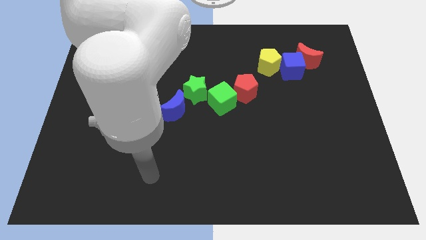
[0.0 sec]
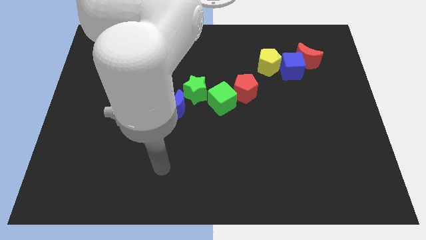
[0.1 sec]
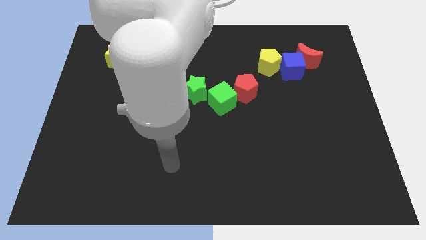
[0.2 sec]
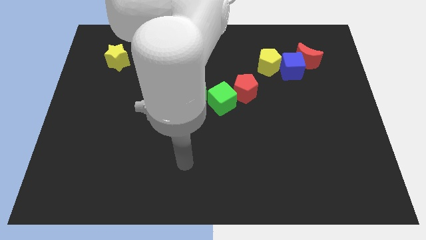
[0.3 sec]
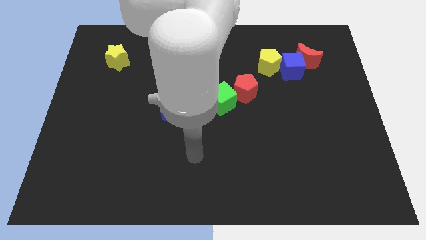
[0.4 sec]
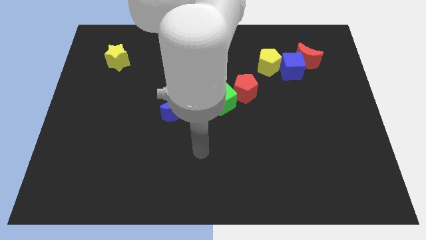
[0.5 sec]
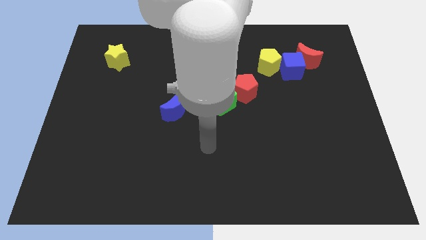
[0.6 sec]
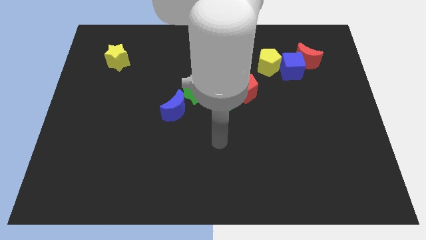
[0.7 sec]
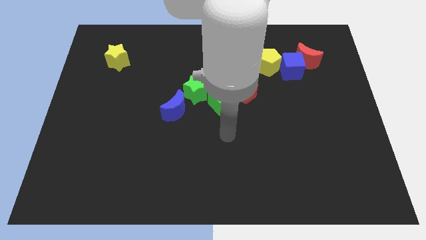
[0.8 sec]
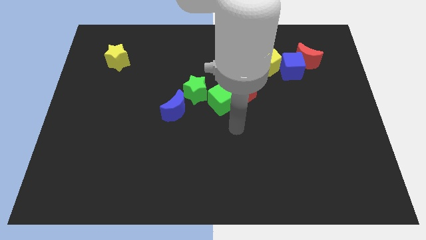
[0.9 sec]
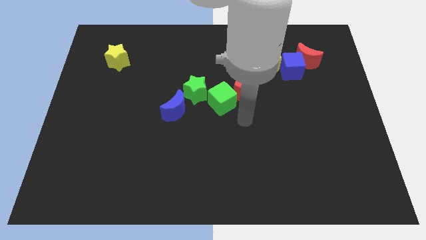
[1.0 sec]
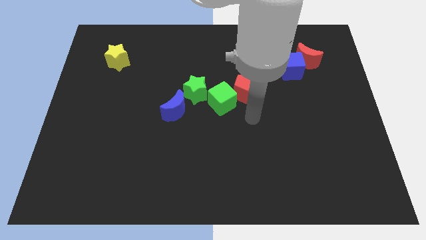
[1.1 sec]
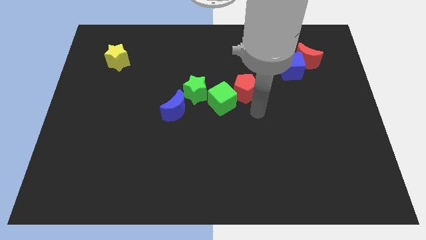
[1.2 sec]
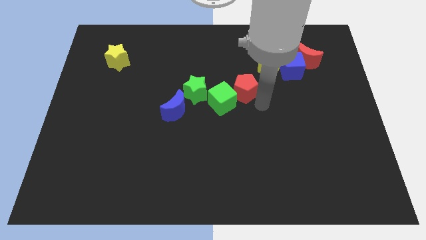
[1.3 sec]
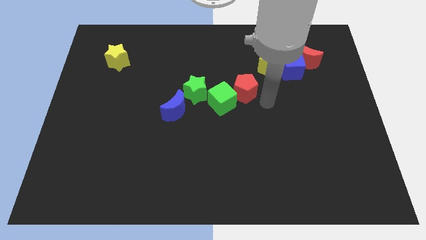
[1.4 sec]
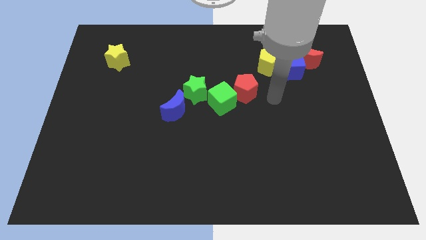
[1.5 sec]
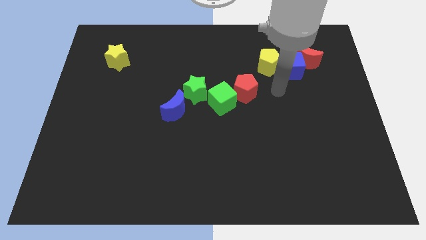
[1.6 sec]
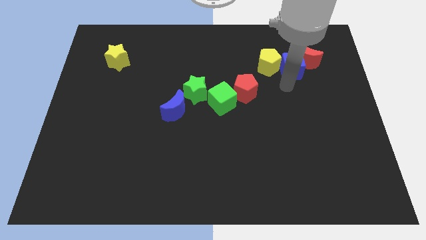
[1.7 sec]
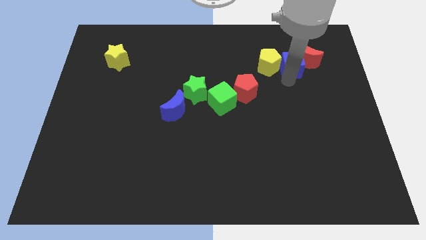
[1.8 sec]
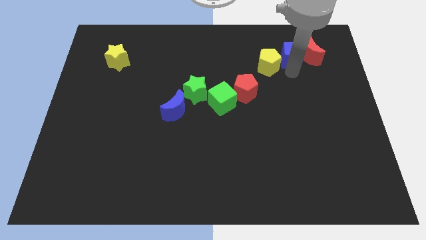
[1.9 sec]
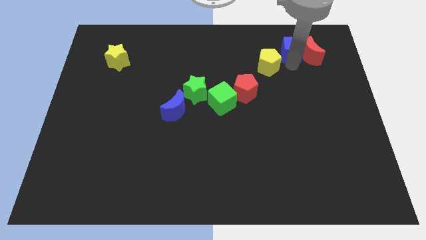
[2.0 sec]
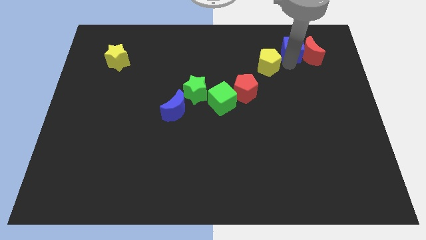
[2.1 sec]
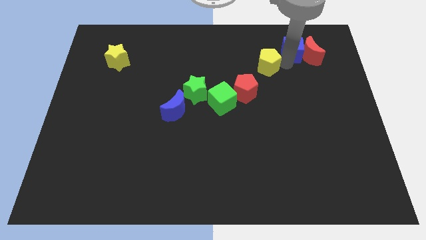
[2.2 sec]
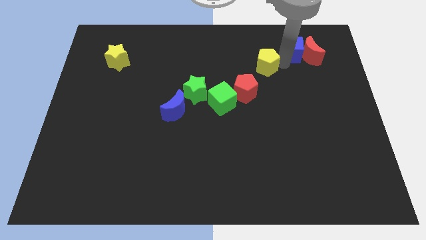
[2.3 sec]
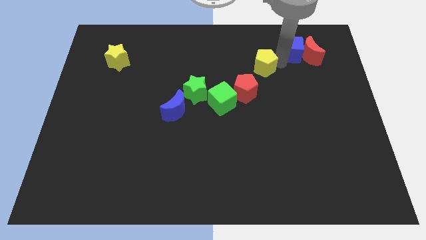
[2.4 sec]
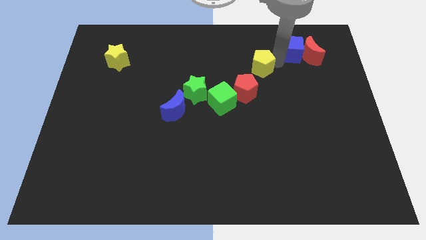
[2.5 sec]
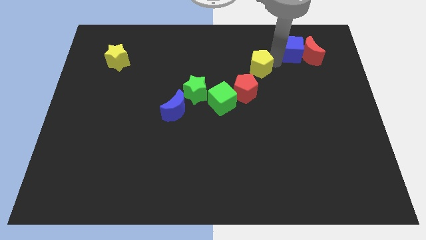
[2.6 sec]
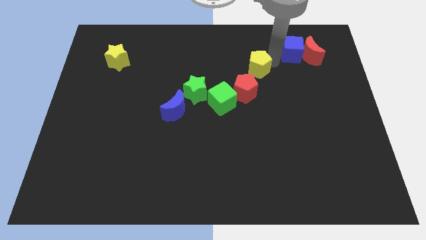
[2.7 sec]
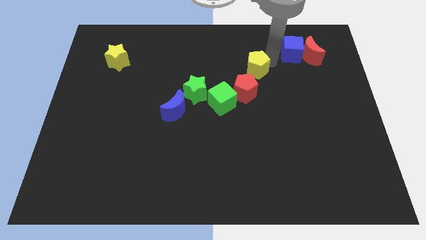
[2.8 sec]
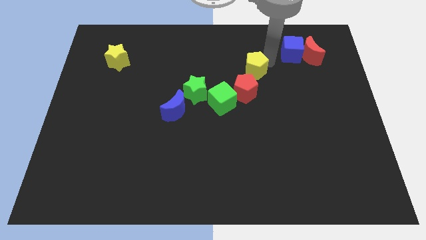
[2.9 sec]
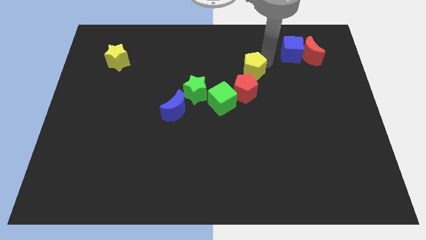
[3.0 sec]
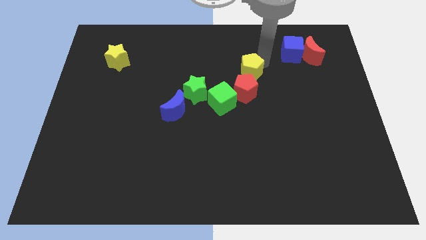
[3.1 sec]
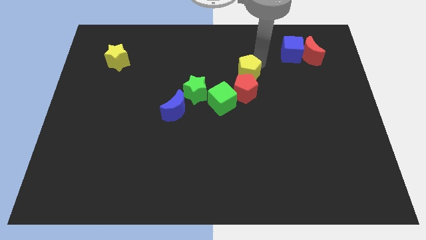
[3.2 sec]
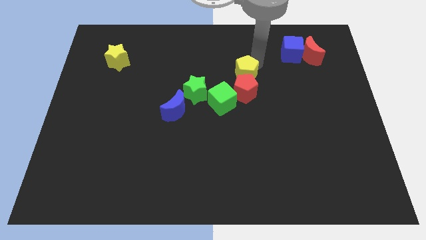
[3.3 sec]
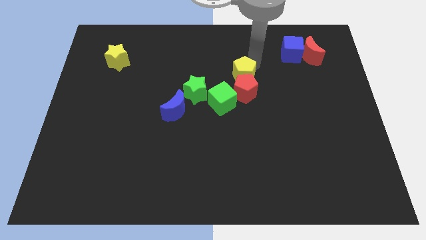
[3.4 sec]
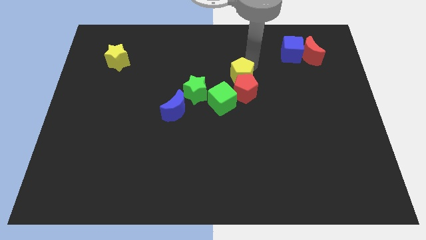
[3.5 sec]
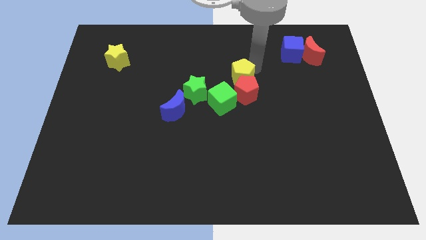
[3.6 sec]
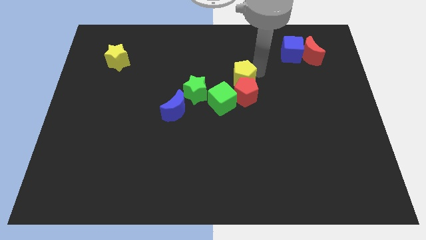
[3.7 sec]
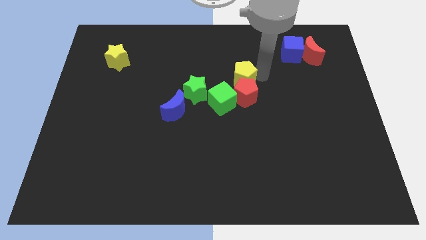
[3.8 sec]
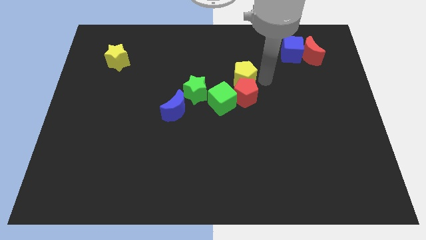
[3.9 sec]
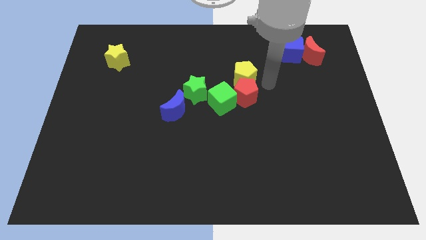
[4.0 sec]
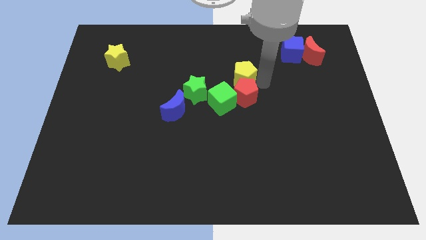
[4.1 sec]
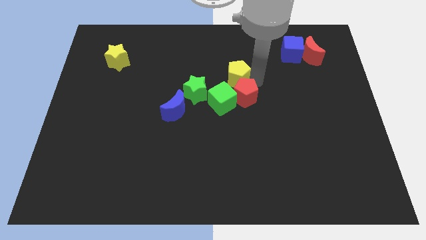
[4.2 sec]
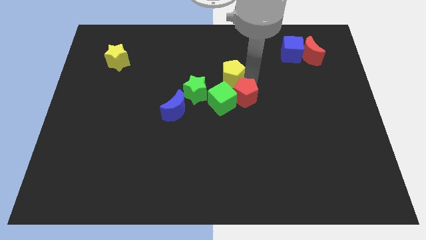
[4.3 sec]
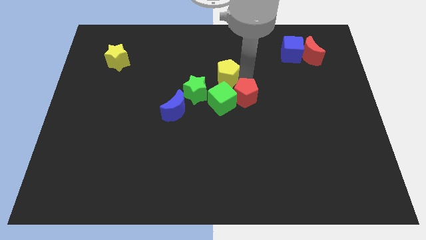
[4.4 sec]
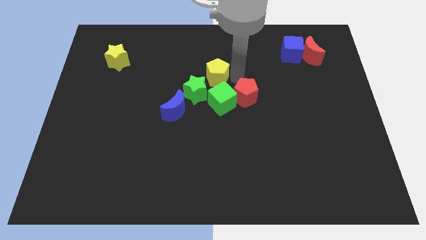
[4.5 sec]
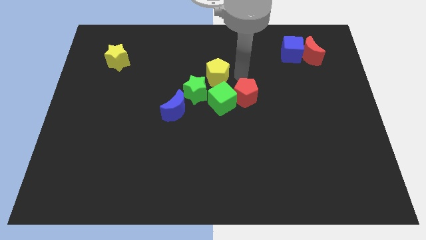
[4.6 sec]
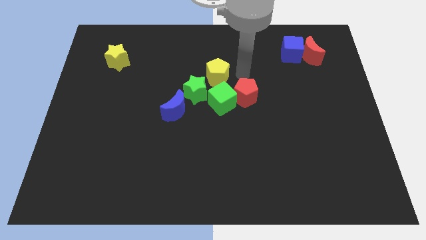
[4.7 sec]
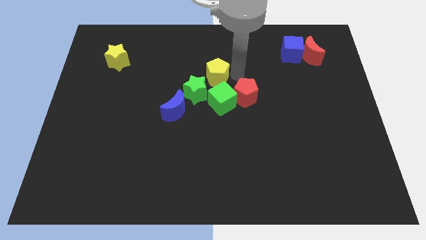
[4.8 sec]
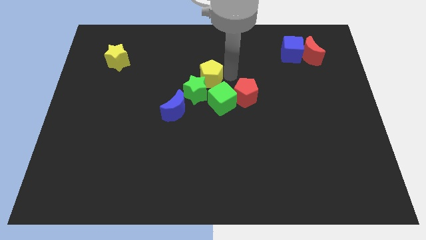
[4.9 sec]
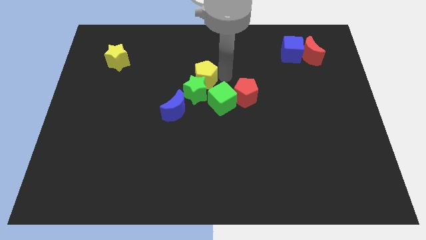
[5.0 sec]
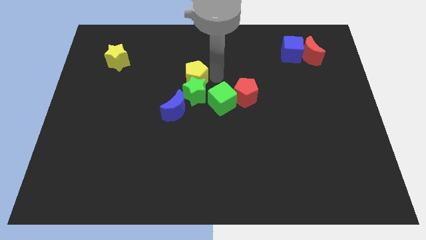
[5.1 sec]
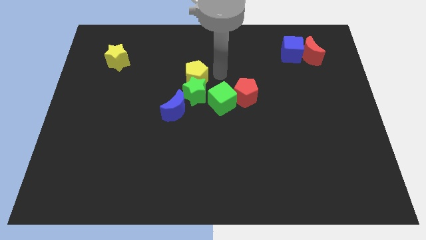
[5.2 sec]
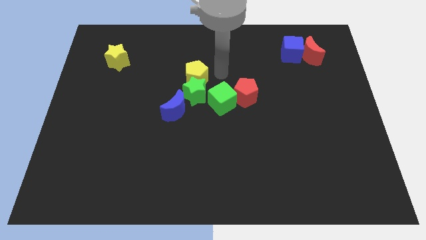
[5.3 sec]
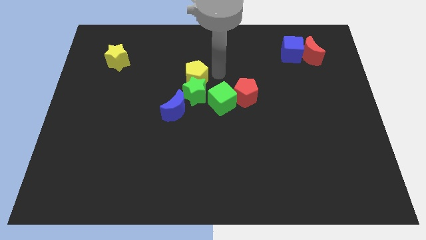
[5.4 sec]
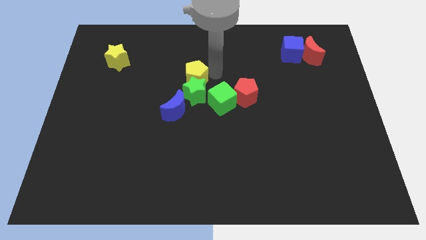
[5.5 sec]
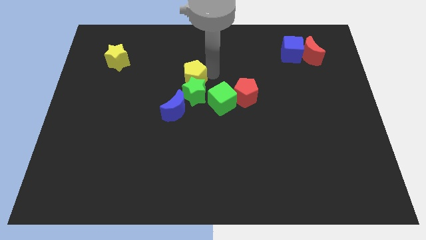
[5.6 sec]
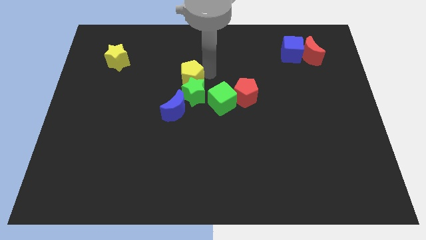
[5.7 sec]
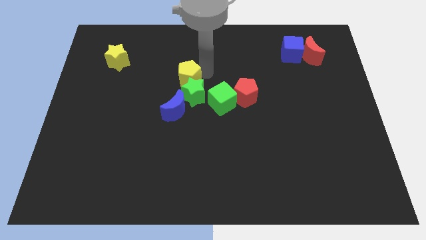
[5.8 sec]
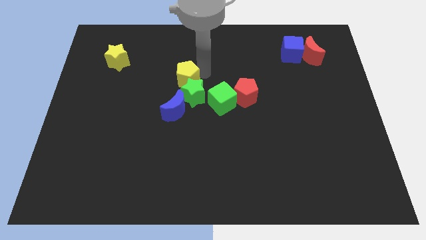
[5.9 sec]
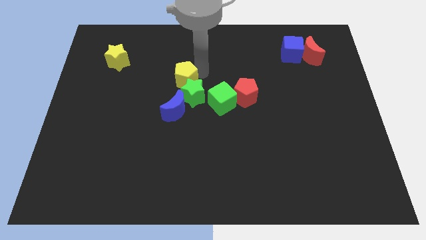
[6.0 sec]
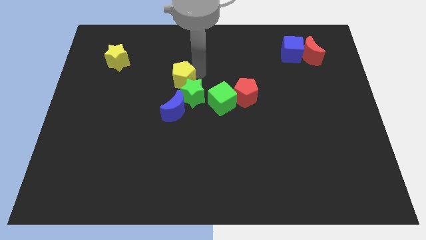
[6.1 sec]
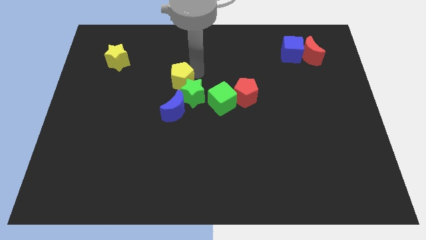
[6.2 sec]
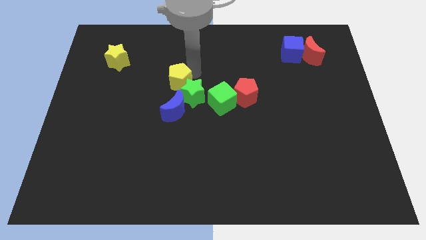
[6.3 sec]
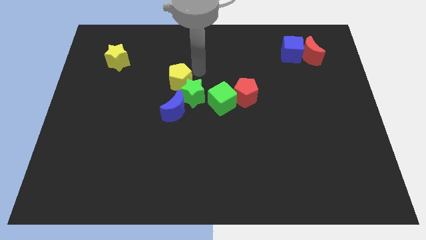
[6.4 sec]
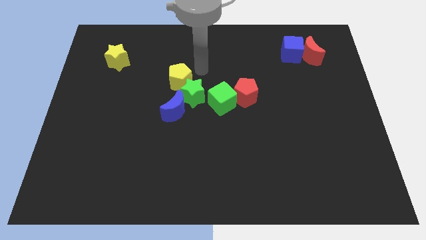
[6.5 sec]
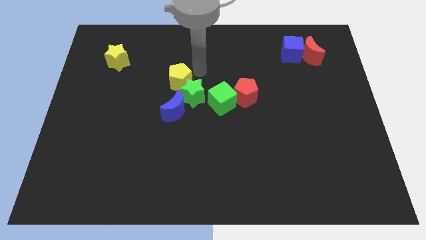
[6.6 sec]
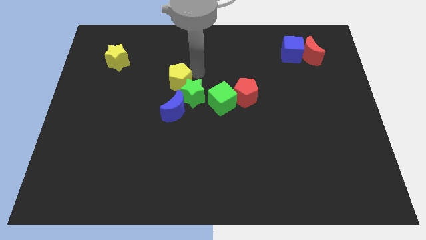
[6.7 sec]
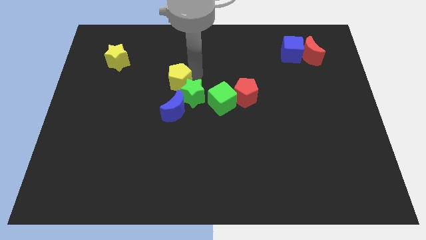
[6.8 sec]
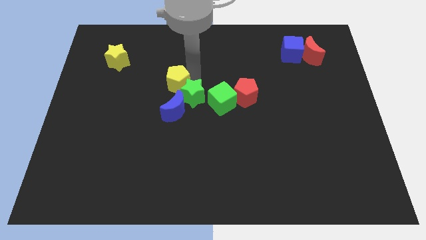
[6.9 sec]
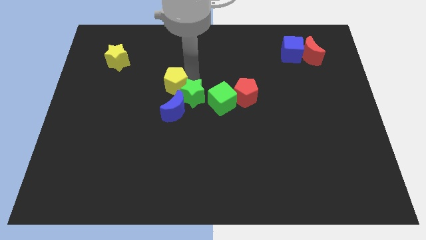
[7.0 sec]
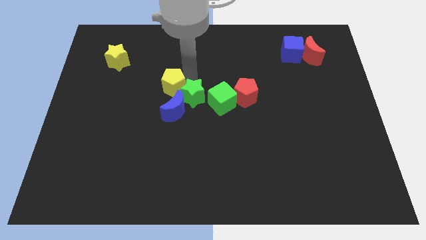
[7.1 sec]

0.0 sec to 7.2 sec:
put the yellow pentagon to the top left side of the blue moon
